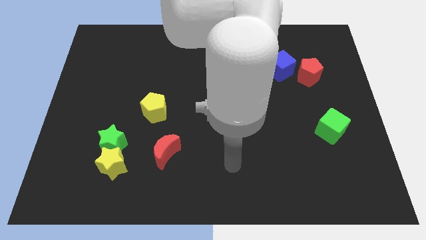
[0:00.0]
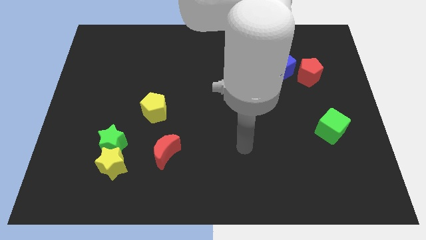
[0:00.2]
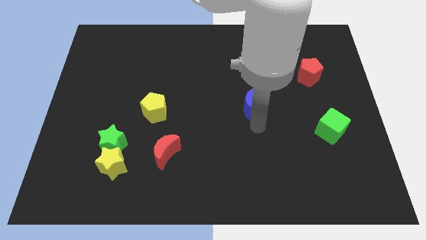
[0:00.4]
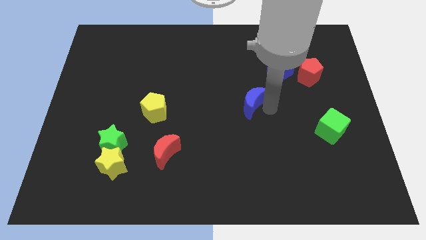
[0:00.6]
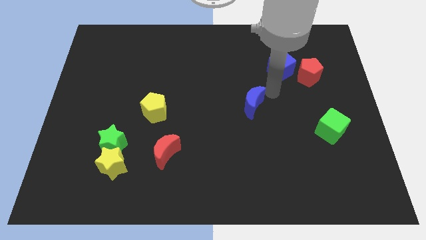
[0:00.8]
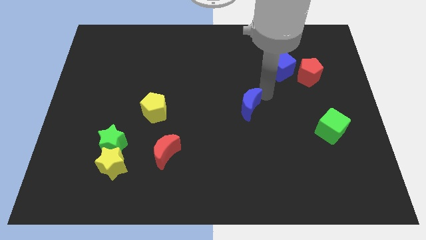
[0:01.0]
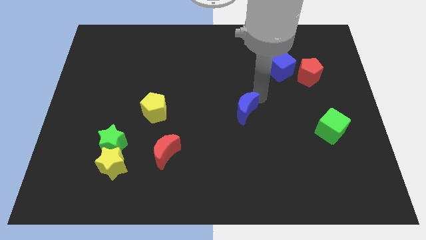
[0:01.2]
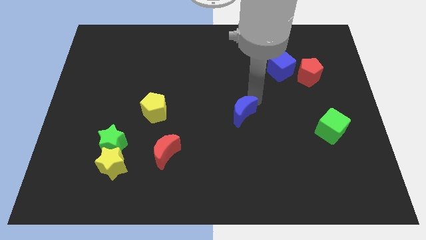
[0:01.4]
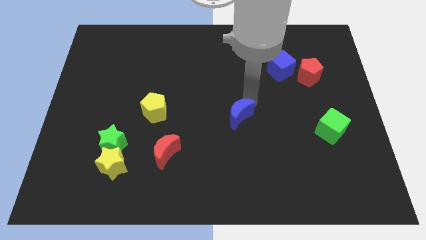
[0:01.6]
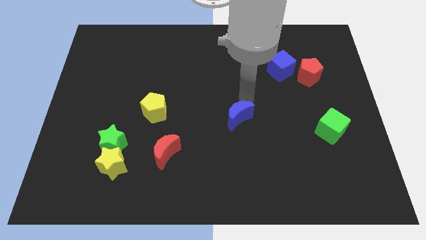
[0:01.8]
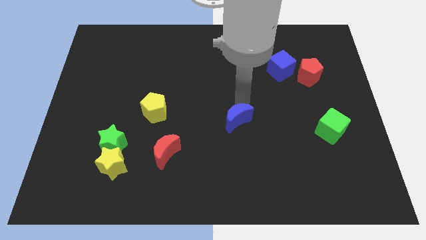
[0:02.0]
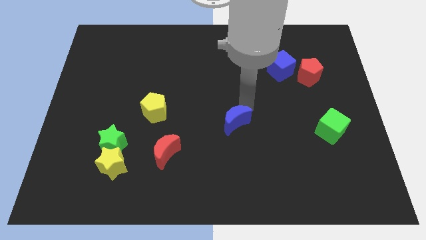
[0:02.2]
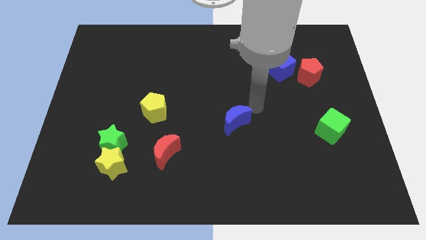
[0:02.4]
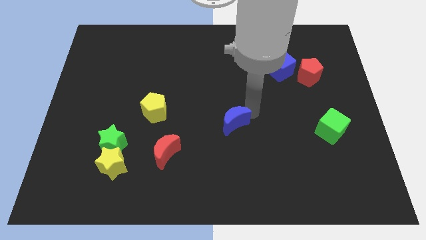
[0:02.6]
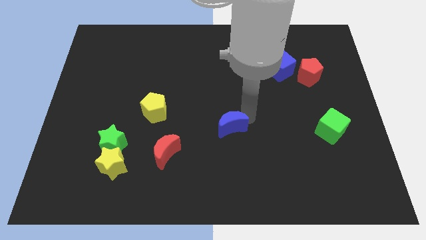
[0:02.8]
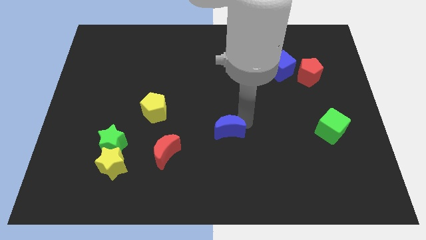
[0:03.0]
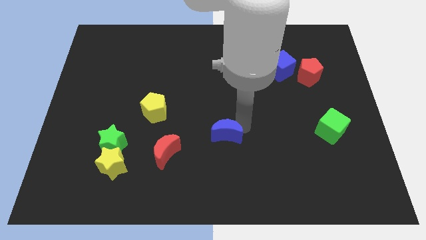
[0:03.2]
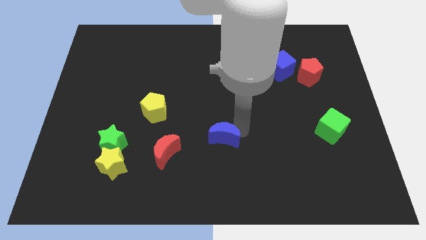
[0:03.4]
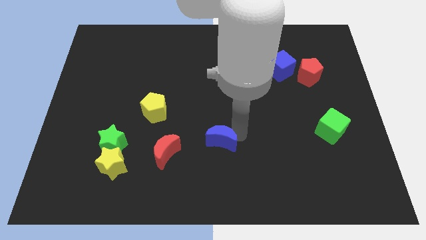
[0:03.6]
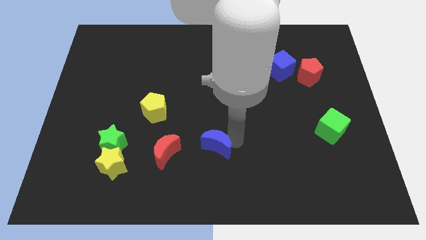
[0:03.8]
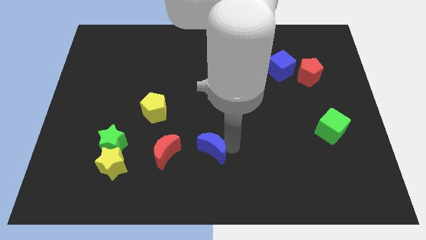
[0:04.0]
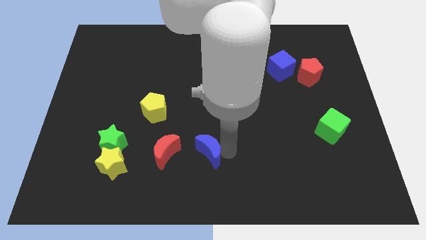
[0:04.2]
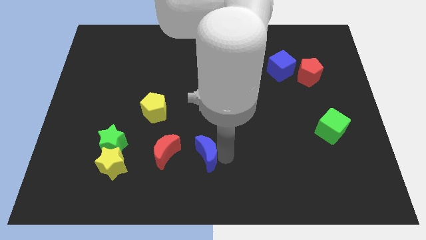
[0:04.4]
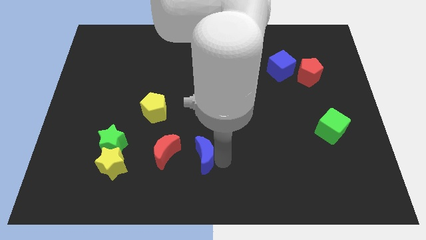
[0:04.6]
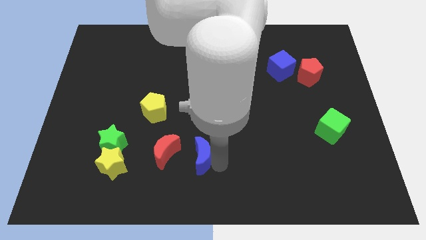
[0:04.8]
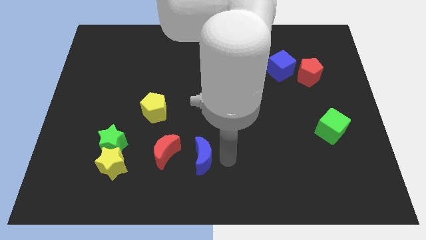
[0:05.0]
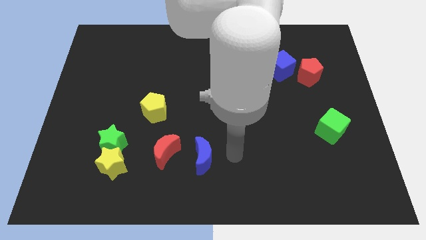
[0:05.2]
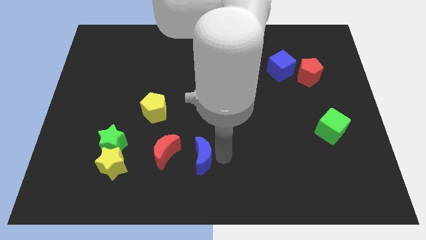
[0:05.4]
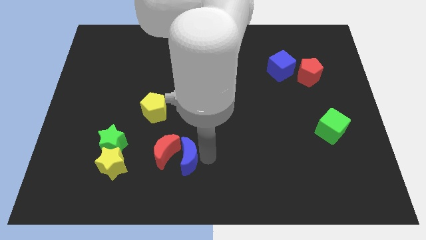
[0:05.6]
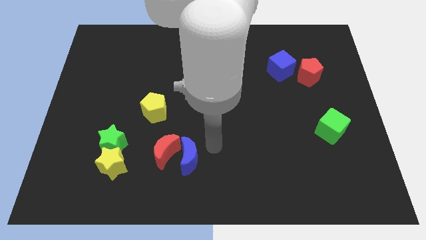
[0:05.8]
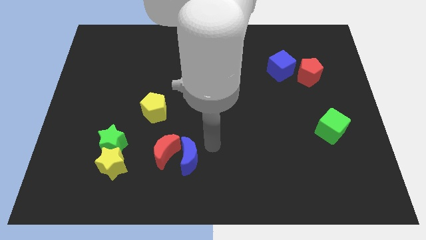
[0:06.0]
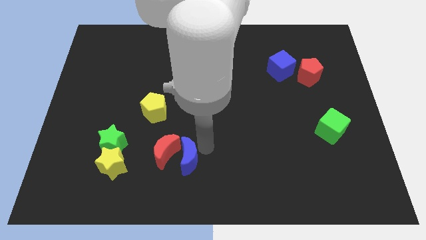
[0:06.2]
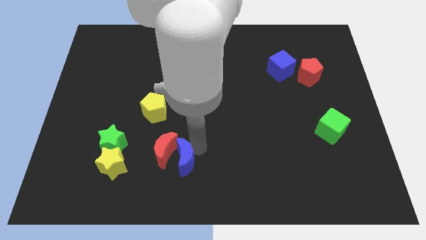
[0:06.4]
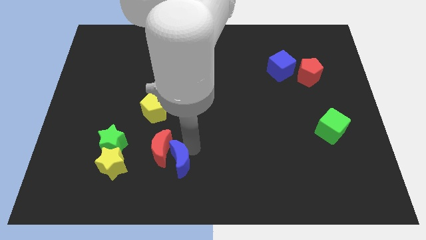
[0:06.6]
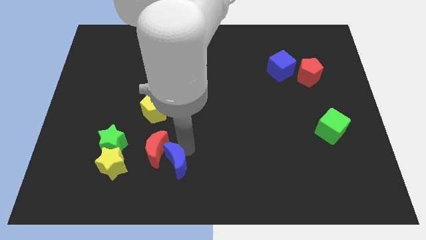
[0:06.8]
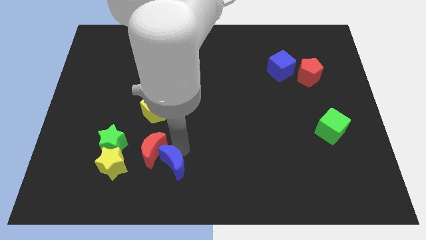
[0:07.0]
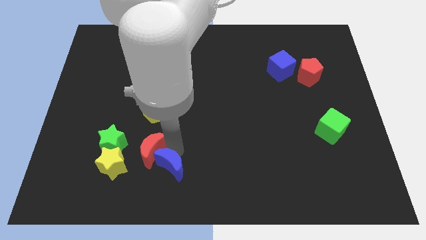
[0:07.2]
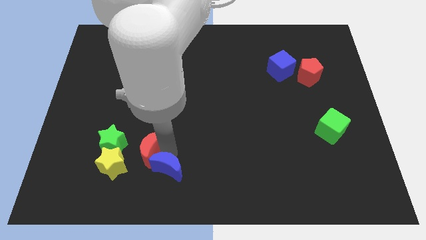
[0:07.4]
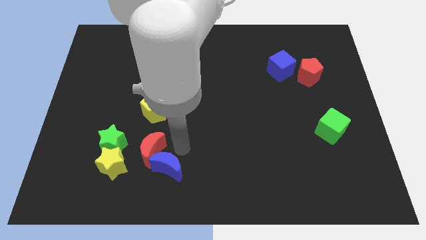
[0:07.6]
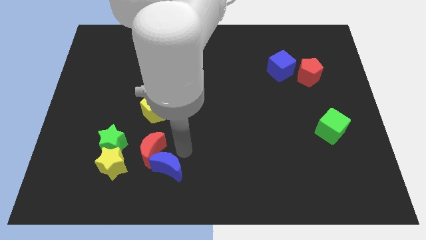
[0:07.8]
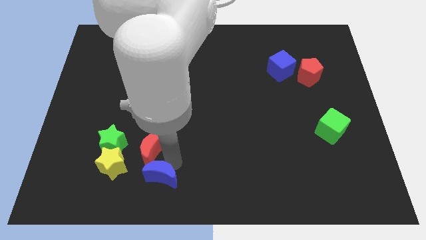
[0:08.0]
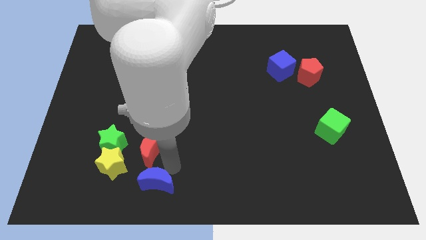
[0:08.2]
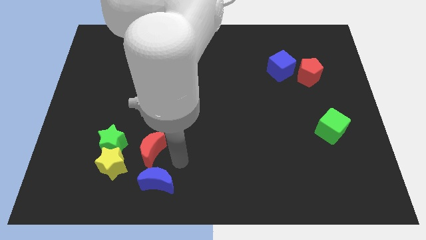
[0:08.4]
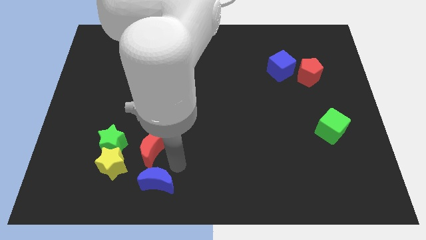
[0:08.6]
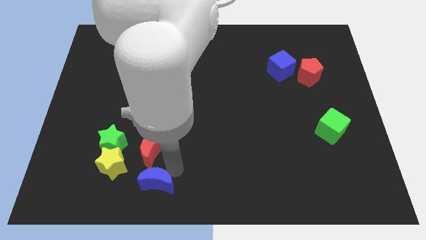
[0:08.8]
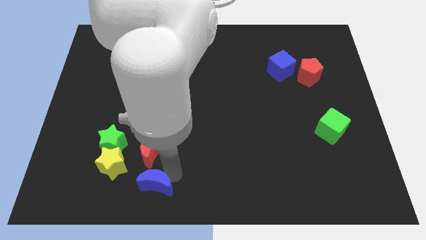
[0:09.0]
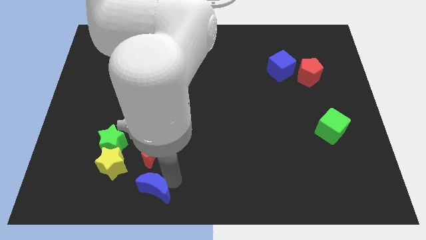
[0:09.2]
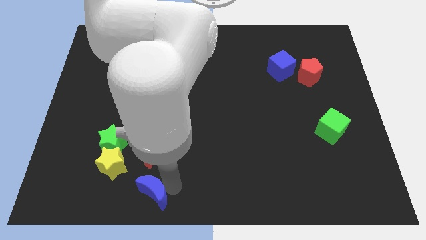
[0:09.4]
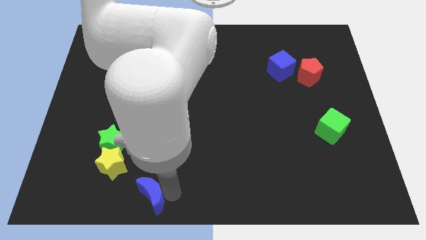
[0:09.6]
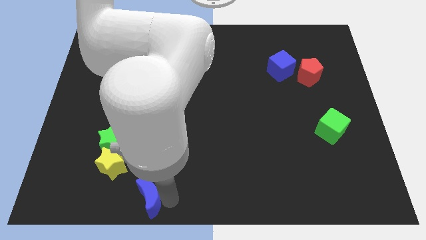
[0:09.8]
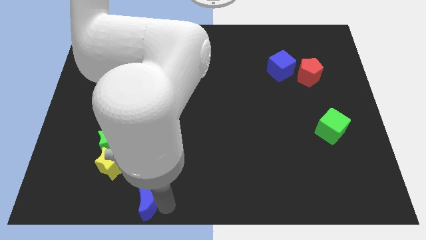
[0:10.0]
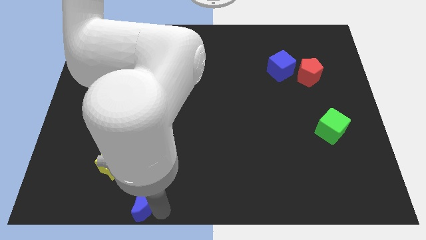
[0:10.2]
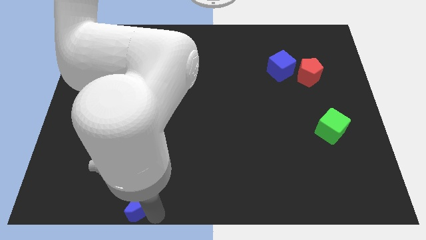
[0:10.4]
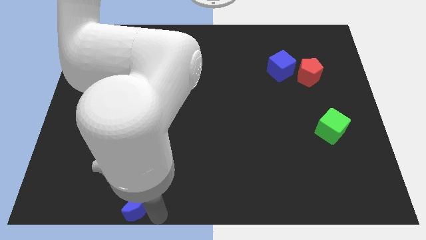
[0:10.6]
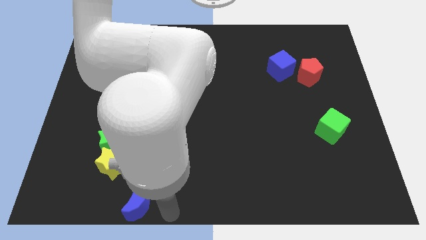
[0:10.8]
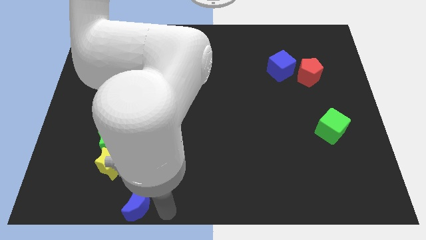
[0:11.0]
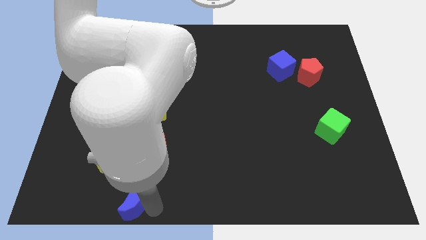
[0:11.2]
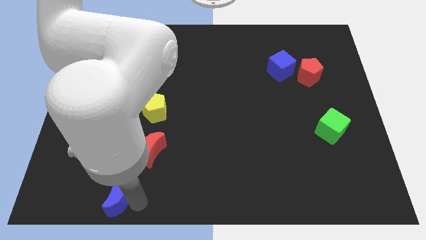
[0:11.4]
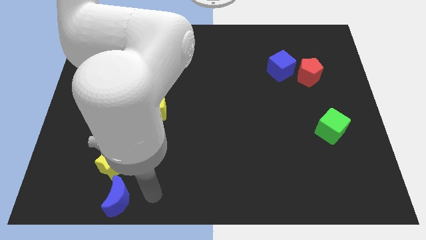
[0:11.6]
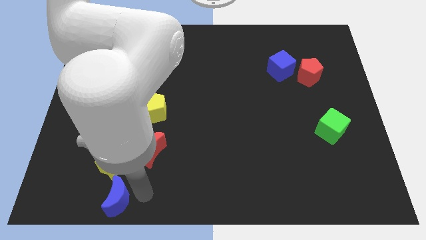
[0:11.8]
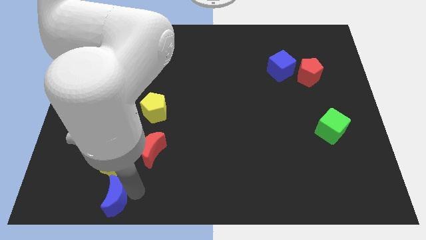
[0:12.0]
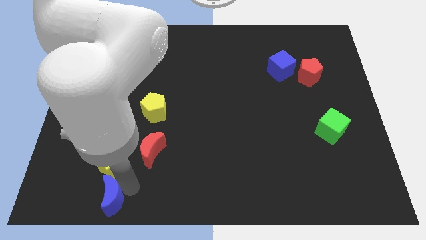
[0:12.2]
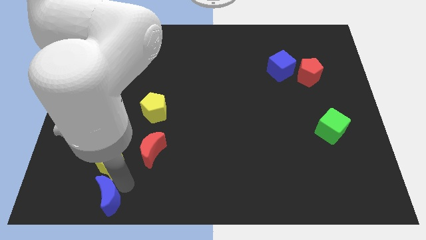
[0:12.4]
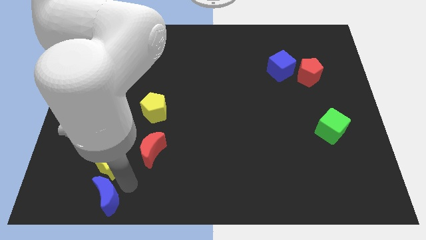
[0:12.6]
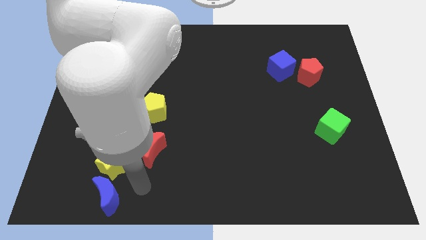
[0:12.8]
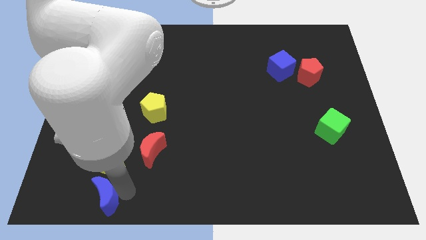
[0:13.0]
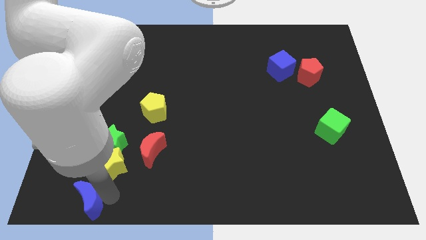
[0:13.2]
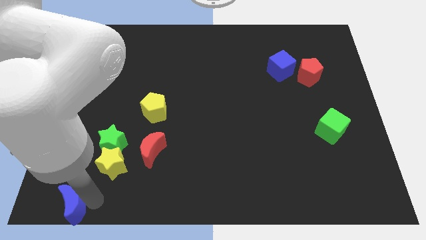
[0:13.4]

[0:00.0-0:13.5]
put the blue moon to the bottom left
